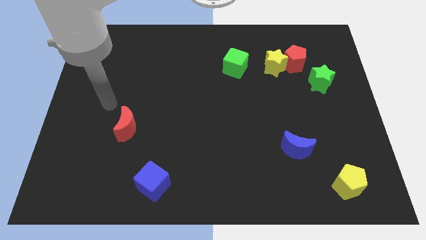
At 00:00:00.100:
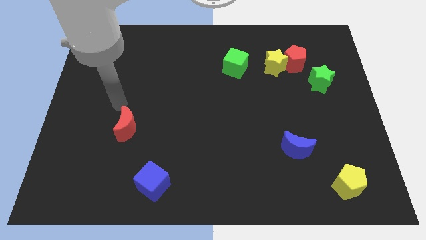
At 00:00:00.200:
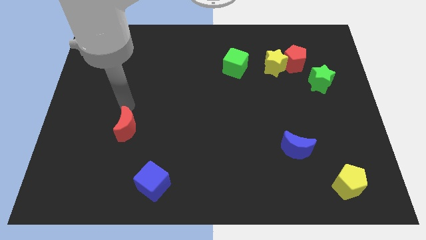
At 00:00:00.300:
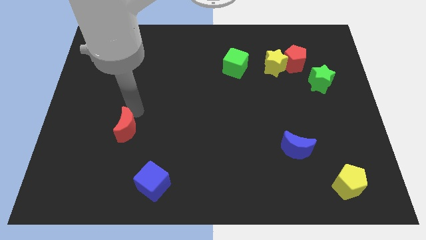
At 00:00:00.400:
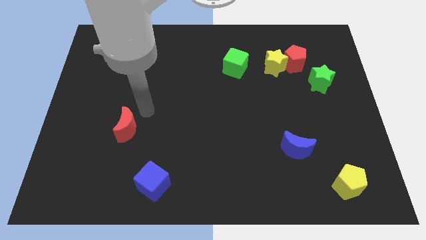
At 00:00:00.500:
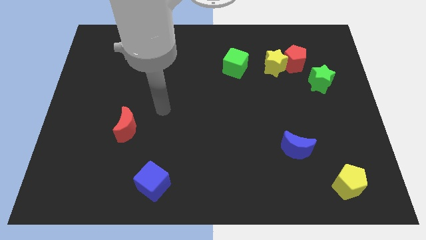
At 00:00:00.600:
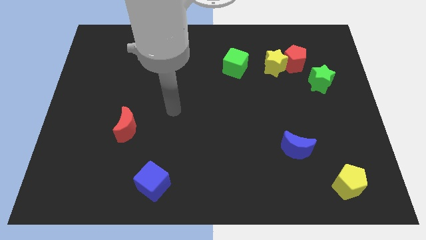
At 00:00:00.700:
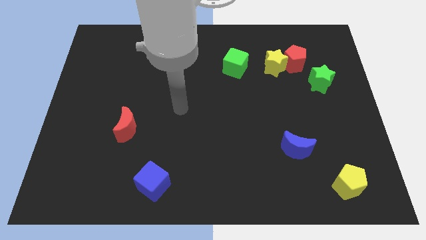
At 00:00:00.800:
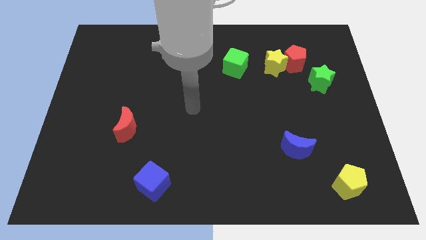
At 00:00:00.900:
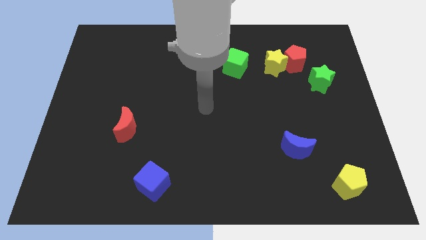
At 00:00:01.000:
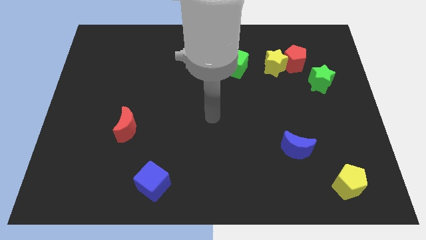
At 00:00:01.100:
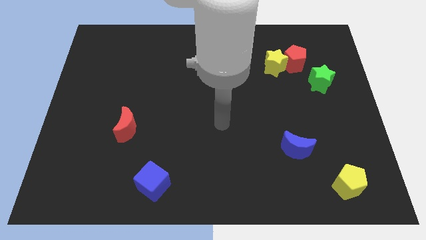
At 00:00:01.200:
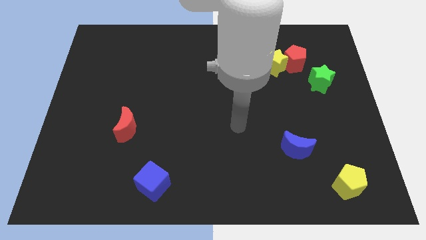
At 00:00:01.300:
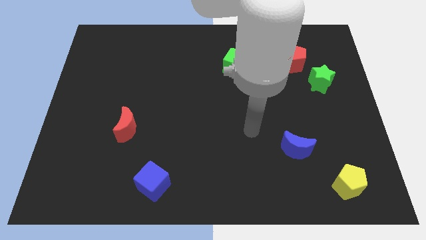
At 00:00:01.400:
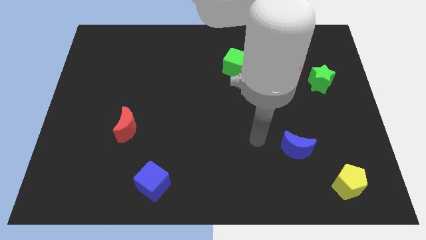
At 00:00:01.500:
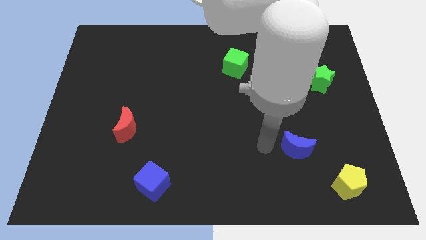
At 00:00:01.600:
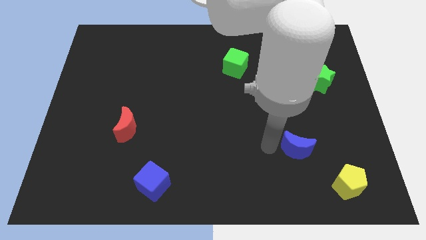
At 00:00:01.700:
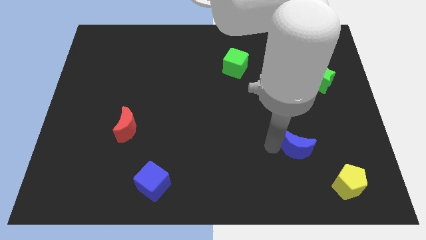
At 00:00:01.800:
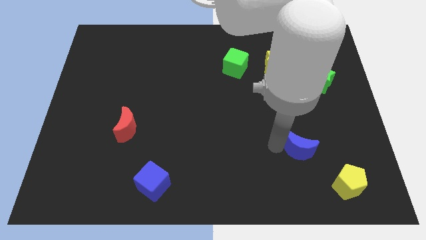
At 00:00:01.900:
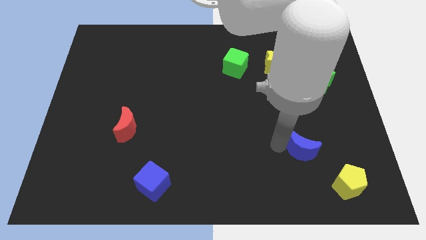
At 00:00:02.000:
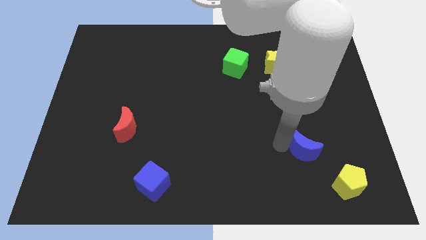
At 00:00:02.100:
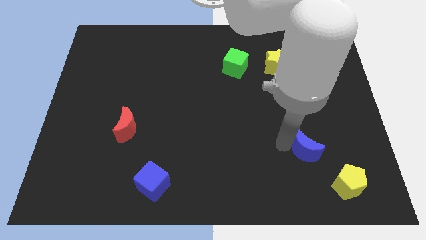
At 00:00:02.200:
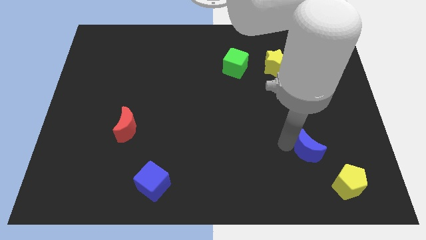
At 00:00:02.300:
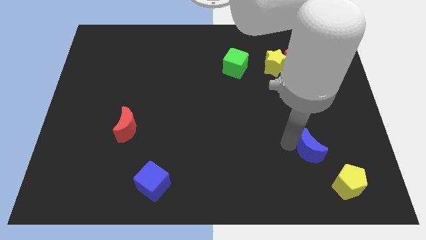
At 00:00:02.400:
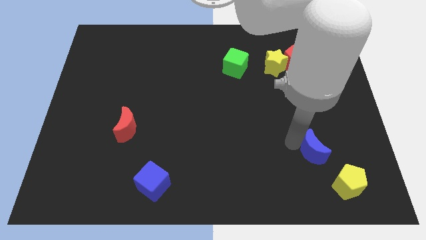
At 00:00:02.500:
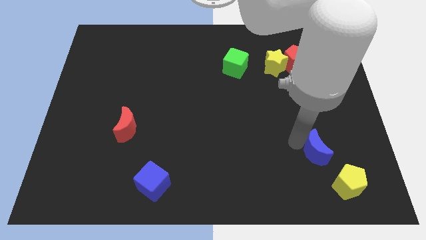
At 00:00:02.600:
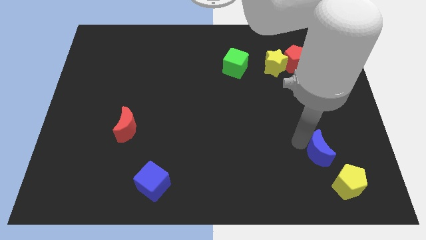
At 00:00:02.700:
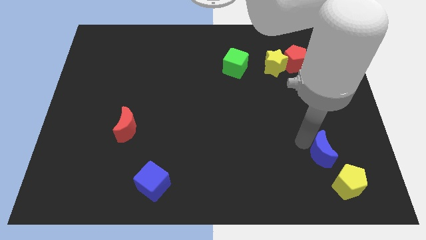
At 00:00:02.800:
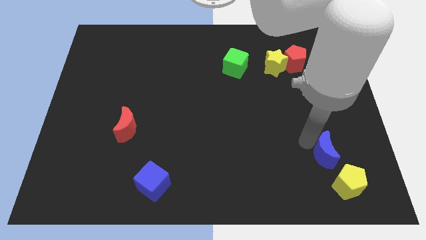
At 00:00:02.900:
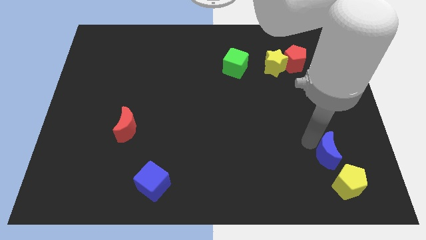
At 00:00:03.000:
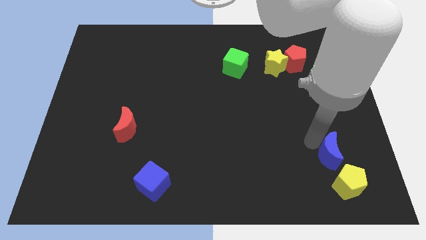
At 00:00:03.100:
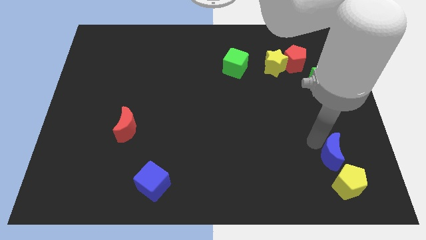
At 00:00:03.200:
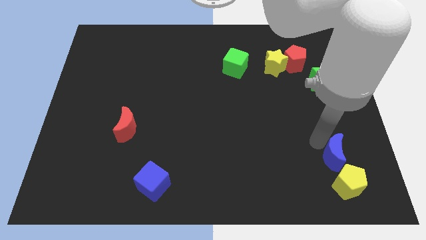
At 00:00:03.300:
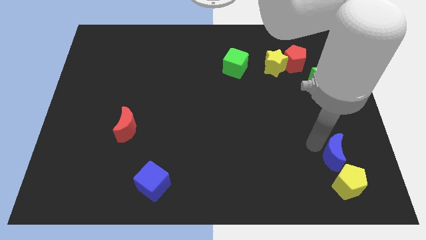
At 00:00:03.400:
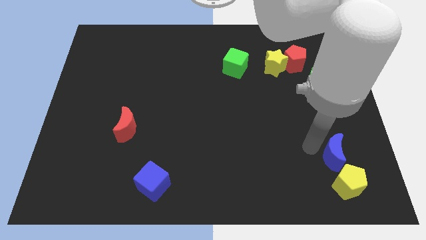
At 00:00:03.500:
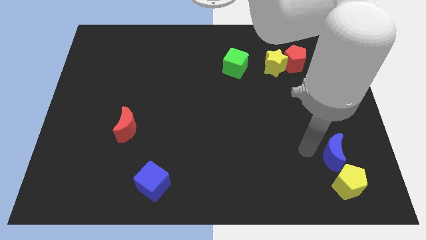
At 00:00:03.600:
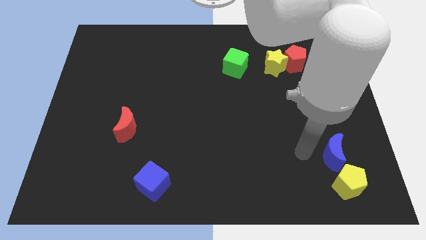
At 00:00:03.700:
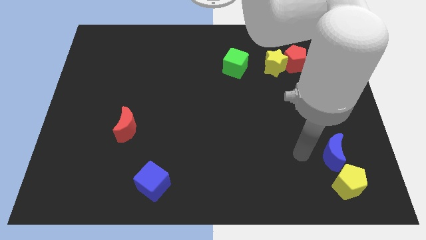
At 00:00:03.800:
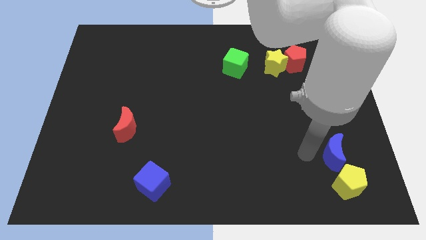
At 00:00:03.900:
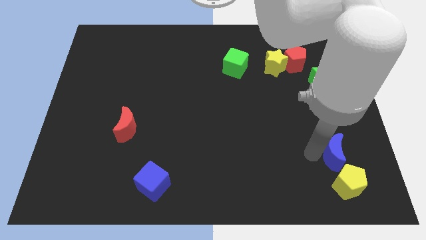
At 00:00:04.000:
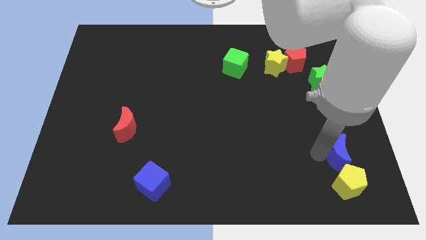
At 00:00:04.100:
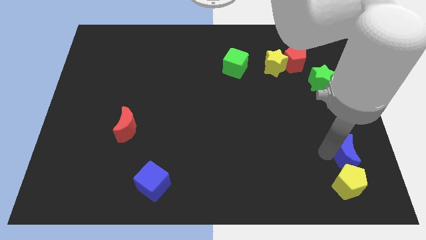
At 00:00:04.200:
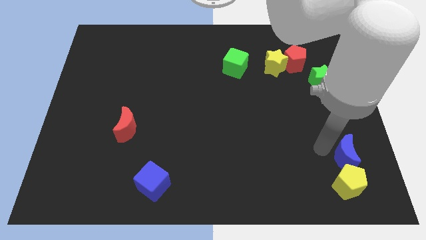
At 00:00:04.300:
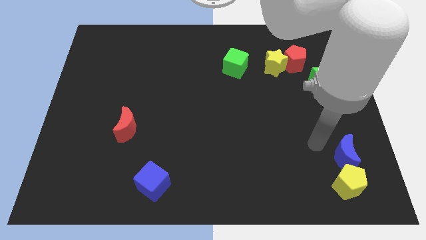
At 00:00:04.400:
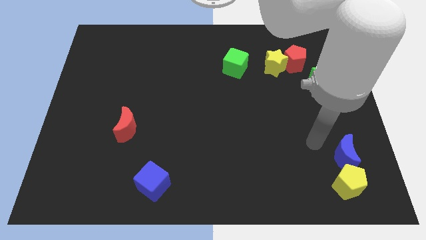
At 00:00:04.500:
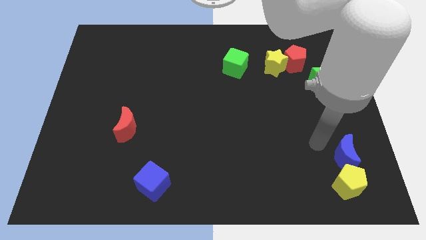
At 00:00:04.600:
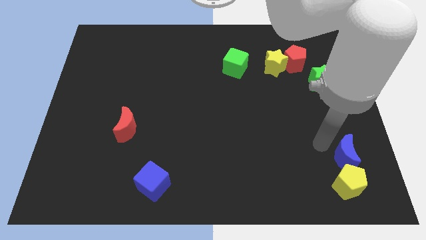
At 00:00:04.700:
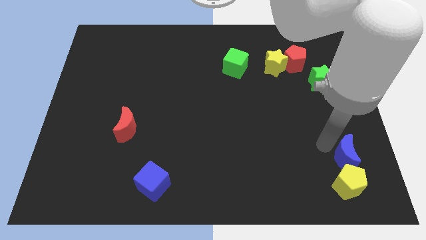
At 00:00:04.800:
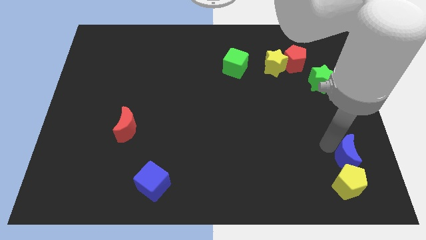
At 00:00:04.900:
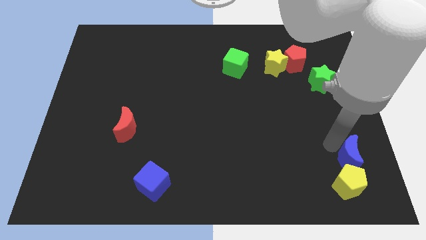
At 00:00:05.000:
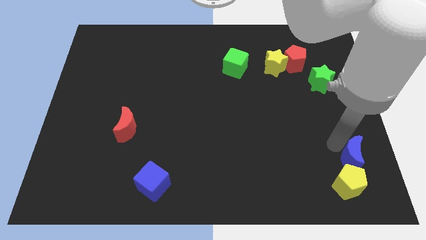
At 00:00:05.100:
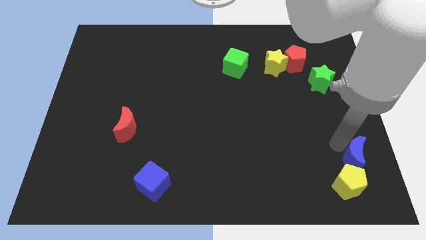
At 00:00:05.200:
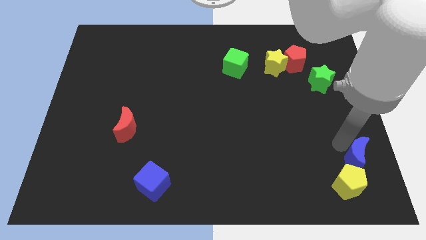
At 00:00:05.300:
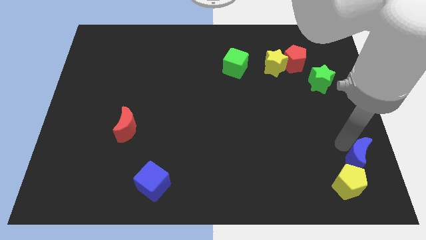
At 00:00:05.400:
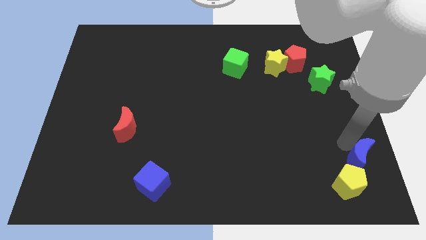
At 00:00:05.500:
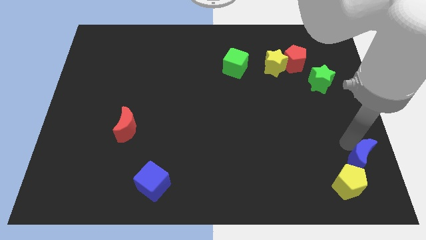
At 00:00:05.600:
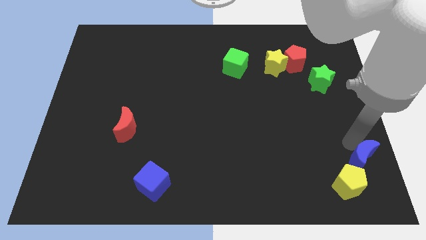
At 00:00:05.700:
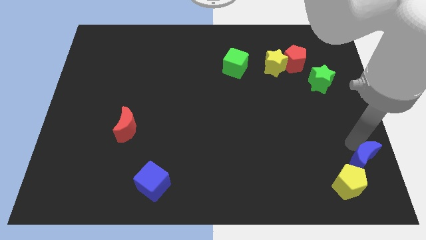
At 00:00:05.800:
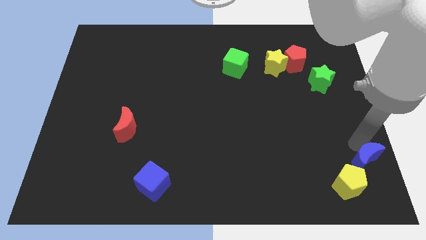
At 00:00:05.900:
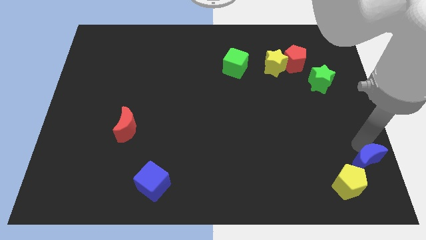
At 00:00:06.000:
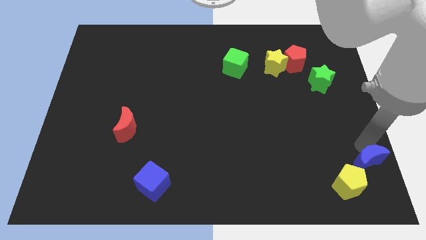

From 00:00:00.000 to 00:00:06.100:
push the blue moon to the bottom right
